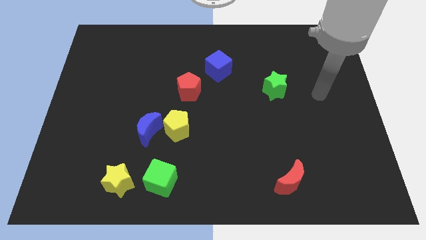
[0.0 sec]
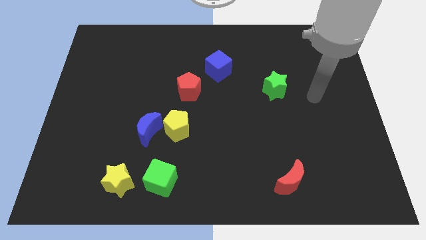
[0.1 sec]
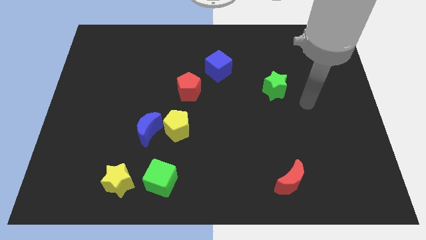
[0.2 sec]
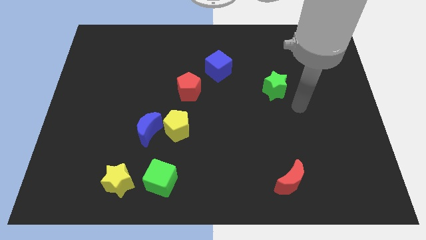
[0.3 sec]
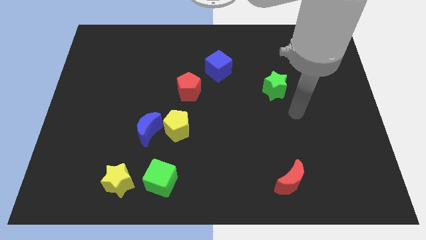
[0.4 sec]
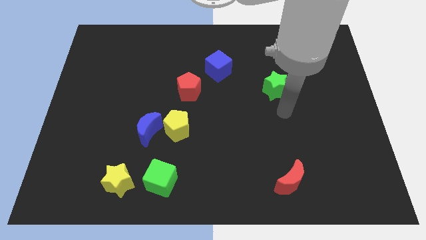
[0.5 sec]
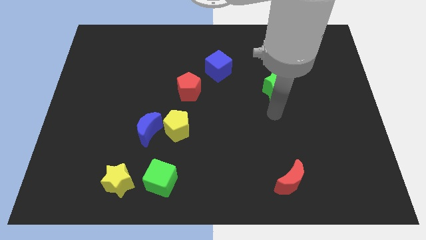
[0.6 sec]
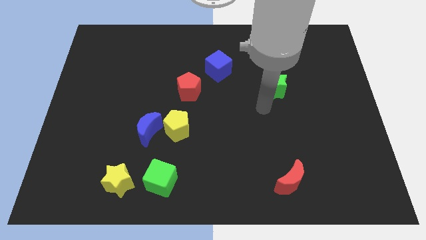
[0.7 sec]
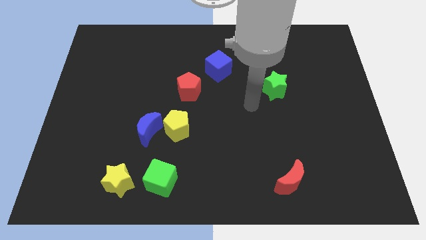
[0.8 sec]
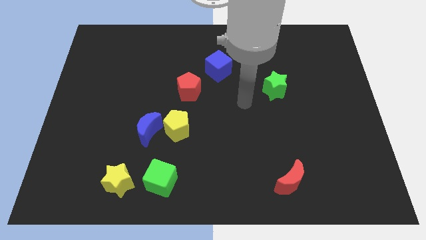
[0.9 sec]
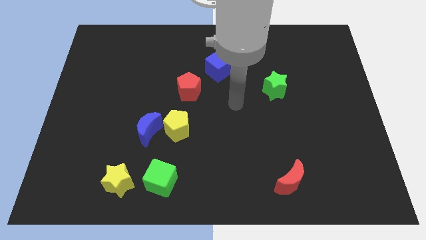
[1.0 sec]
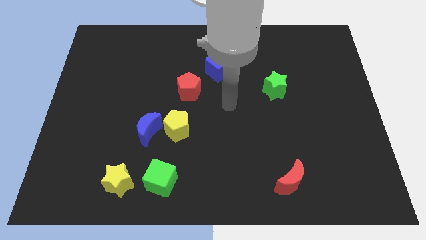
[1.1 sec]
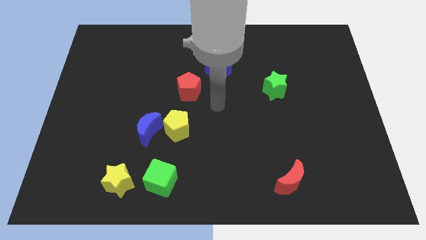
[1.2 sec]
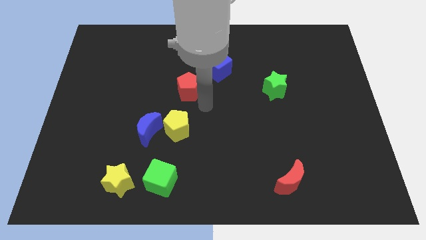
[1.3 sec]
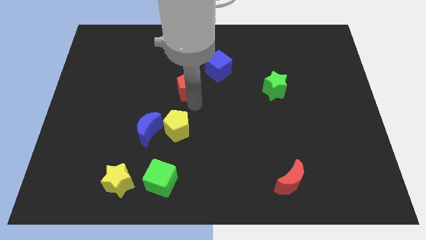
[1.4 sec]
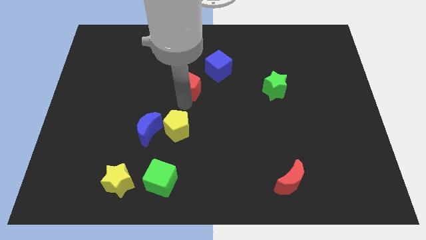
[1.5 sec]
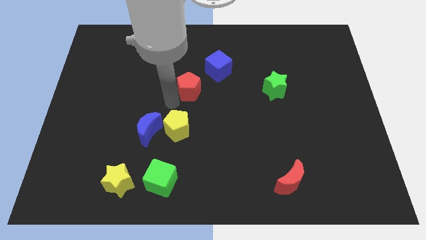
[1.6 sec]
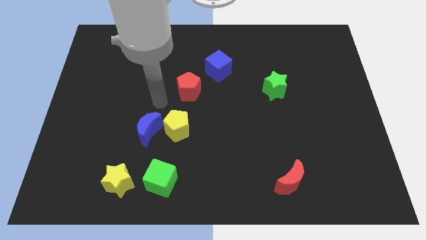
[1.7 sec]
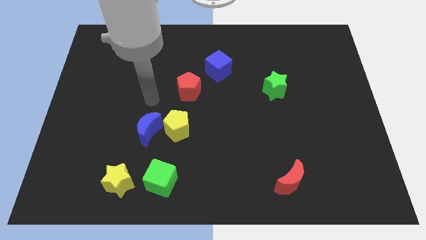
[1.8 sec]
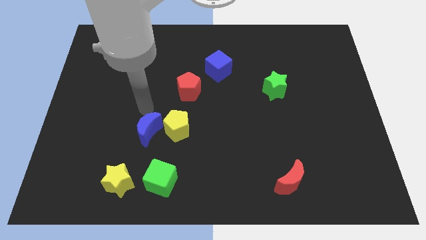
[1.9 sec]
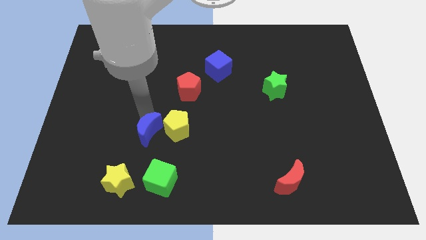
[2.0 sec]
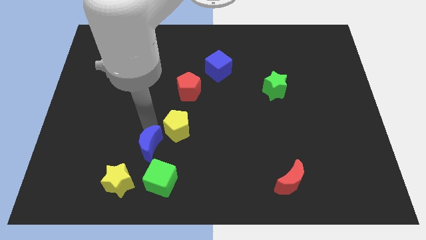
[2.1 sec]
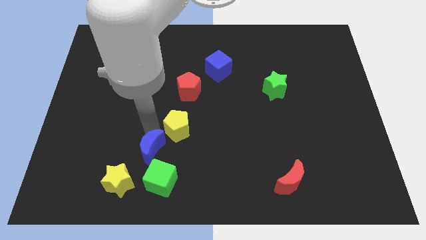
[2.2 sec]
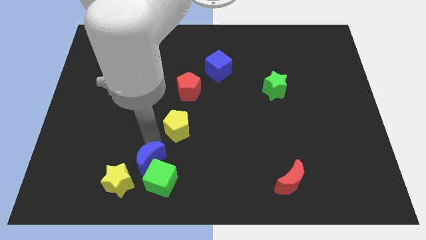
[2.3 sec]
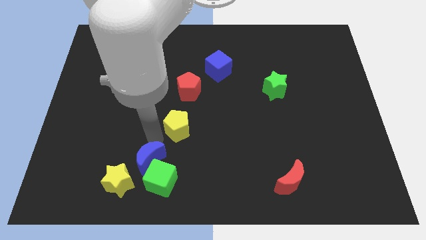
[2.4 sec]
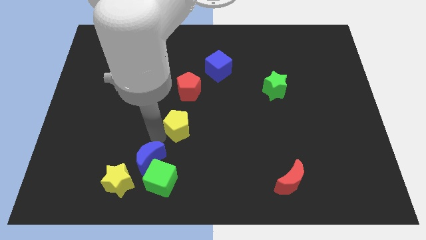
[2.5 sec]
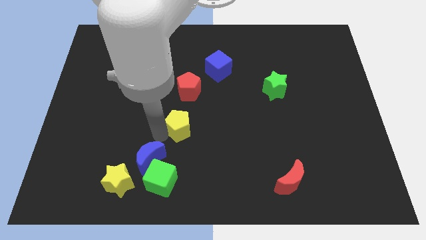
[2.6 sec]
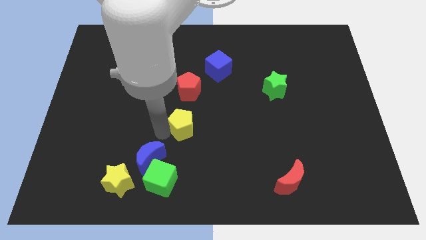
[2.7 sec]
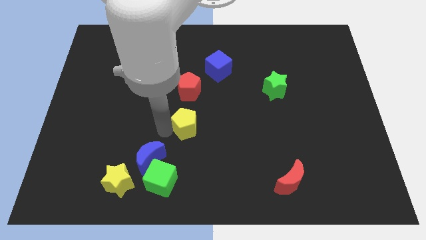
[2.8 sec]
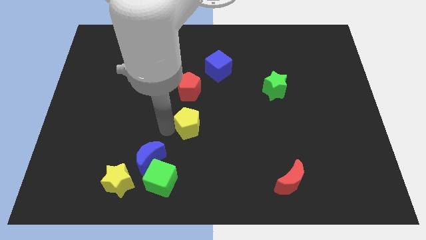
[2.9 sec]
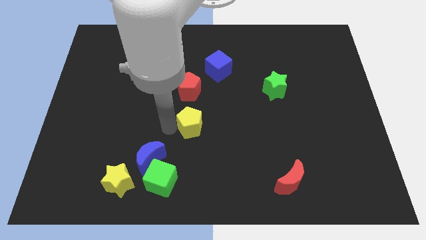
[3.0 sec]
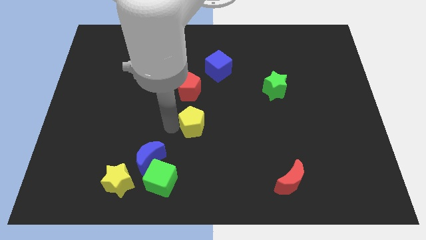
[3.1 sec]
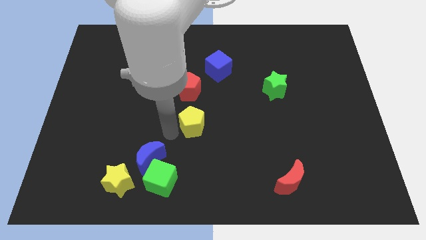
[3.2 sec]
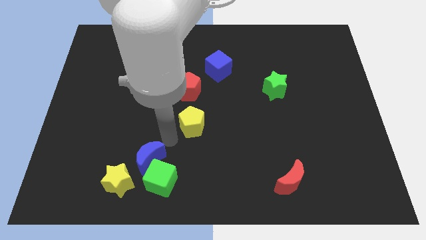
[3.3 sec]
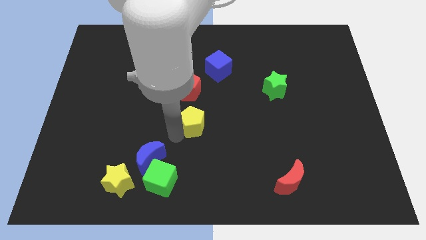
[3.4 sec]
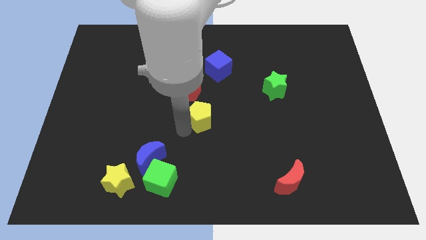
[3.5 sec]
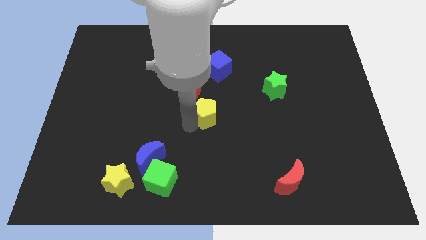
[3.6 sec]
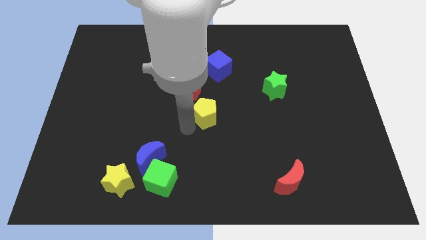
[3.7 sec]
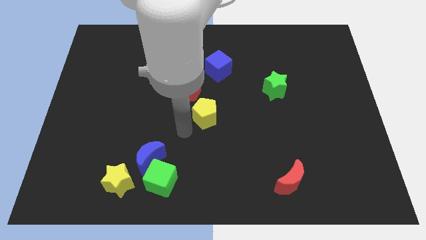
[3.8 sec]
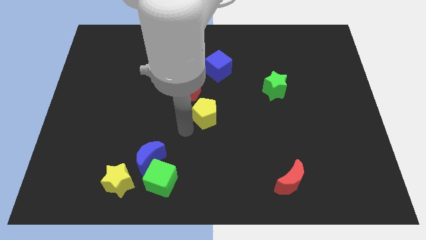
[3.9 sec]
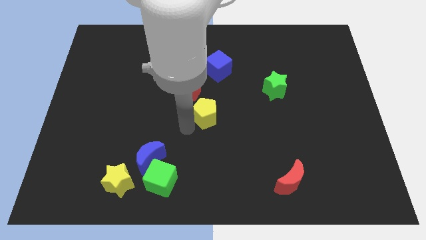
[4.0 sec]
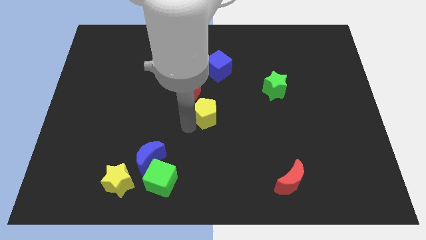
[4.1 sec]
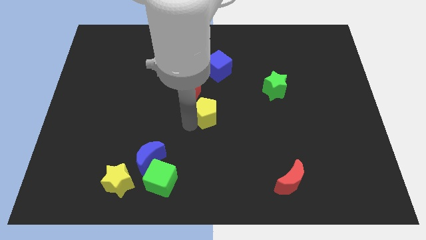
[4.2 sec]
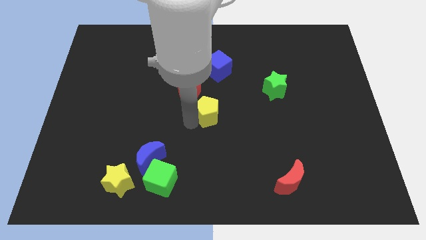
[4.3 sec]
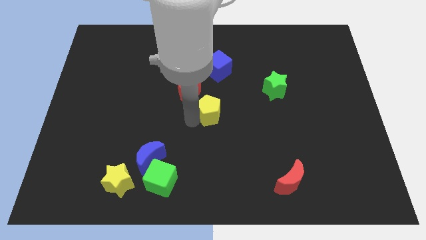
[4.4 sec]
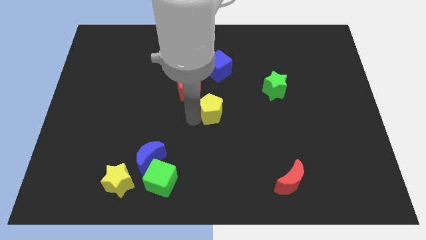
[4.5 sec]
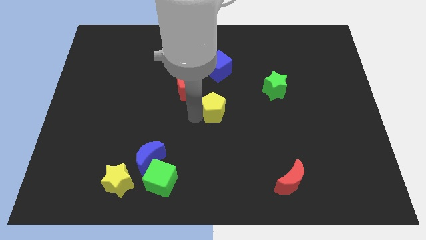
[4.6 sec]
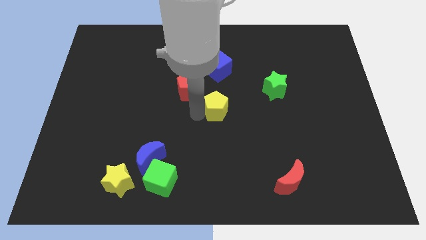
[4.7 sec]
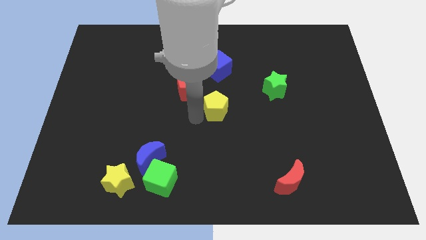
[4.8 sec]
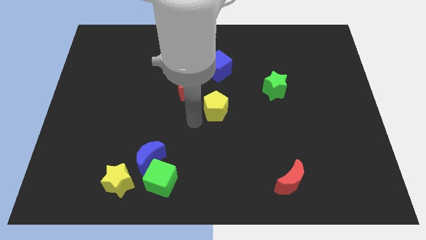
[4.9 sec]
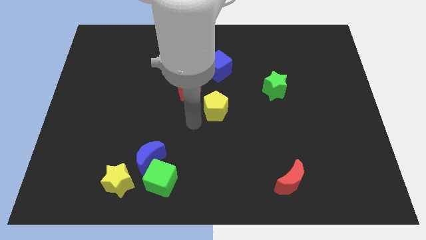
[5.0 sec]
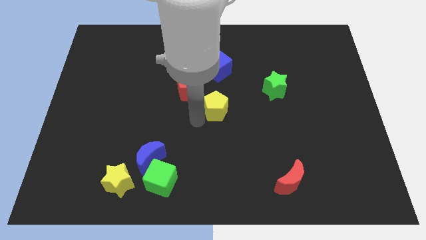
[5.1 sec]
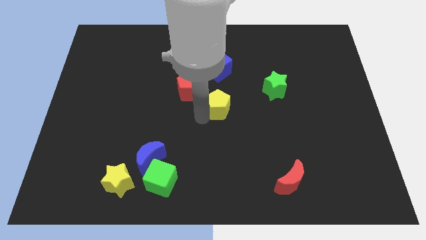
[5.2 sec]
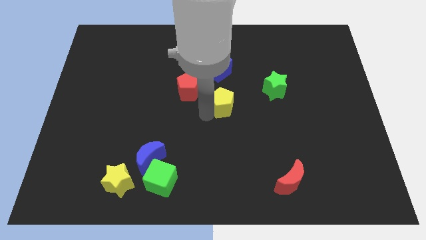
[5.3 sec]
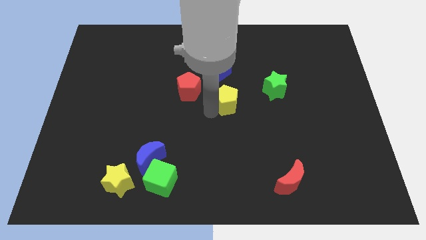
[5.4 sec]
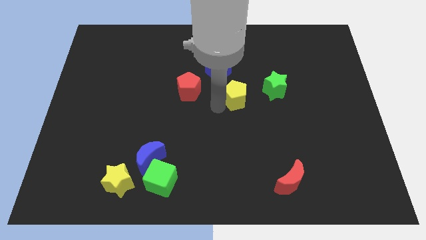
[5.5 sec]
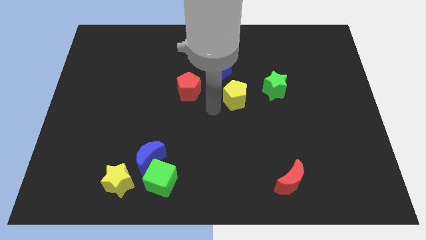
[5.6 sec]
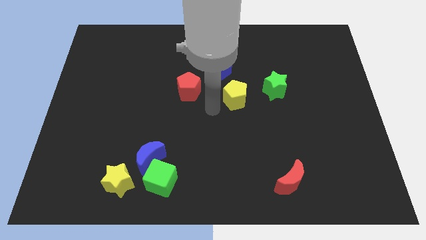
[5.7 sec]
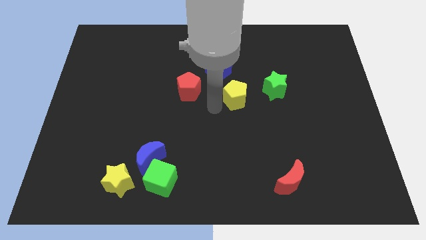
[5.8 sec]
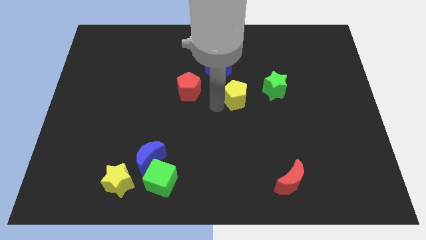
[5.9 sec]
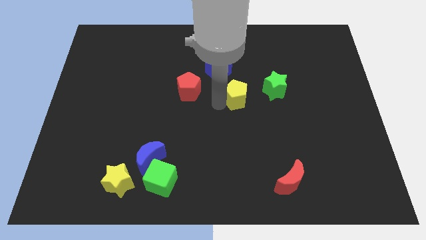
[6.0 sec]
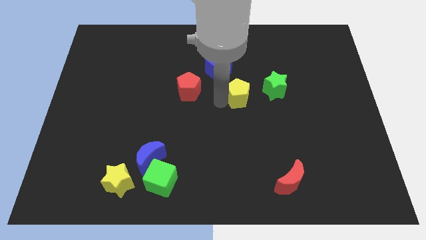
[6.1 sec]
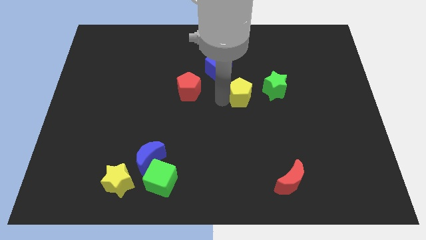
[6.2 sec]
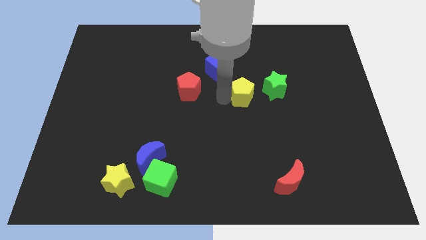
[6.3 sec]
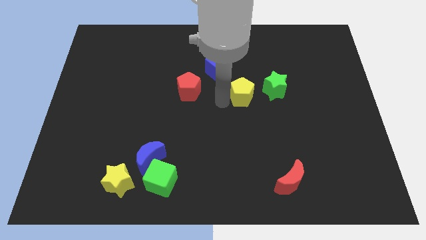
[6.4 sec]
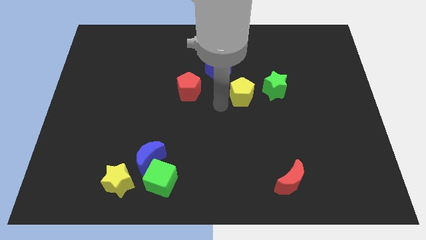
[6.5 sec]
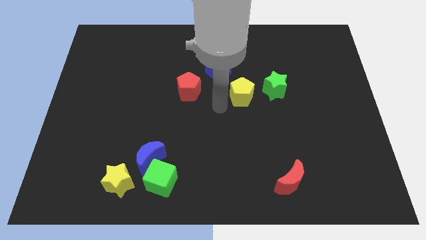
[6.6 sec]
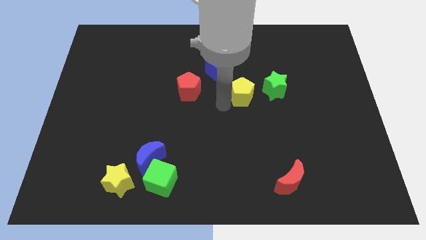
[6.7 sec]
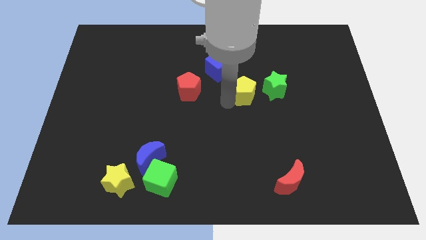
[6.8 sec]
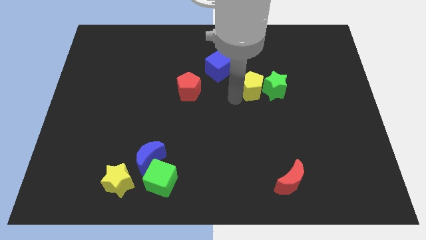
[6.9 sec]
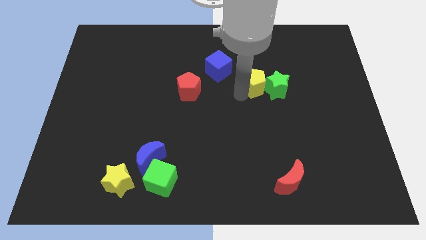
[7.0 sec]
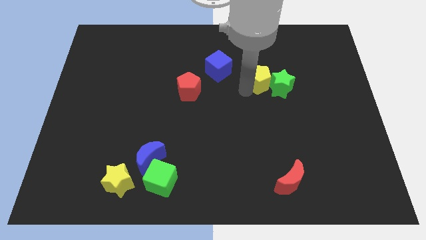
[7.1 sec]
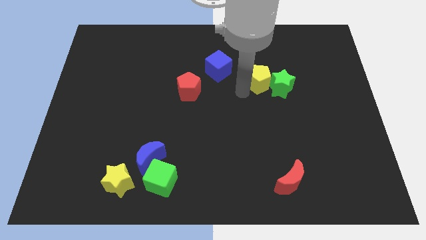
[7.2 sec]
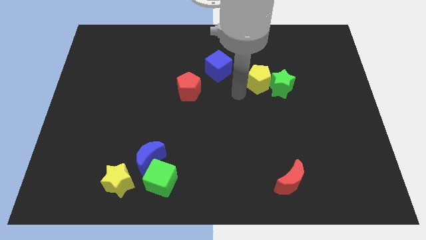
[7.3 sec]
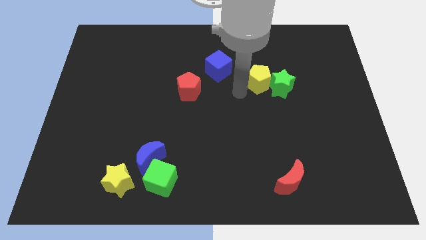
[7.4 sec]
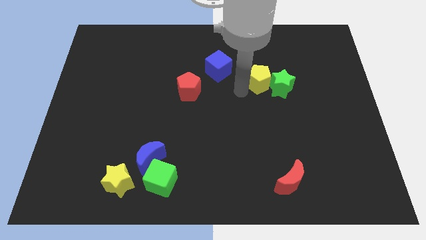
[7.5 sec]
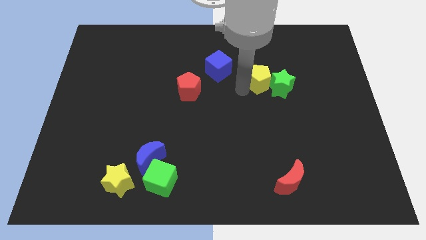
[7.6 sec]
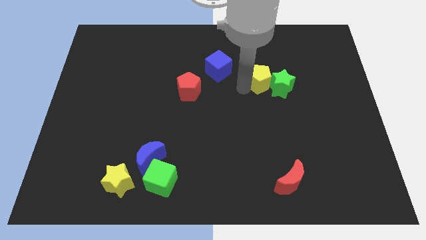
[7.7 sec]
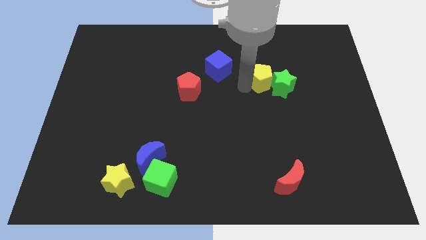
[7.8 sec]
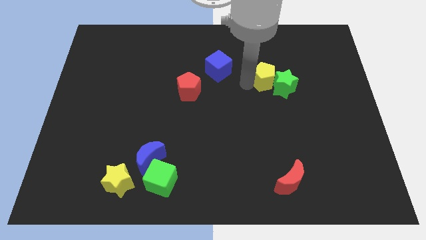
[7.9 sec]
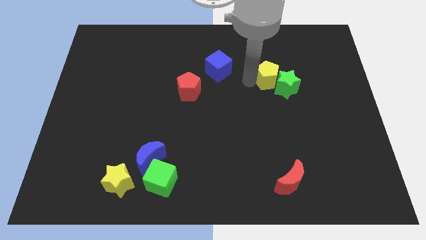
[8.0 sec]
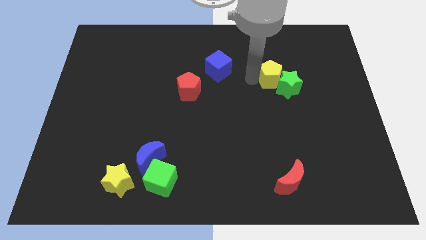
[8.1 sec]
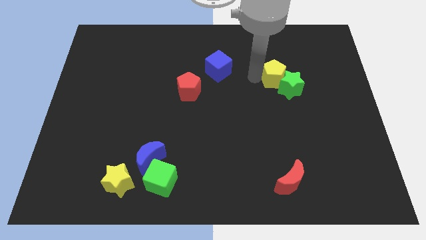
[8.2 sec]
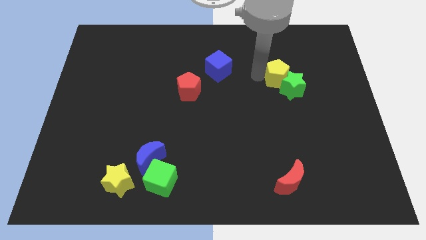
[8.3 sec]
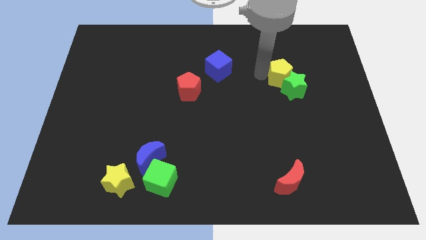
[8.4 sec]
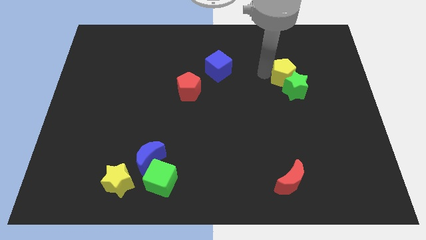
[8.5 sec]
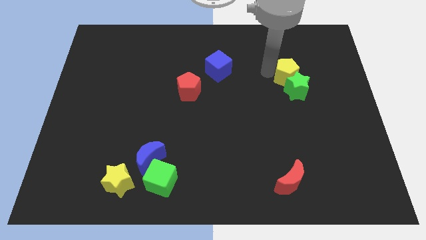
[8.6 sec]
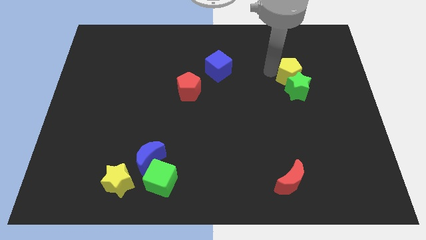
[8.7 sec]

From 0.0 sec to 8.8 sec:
put the yellow pentagon diagonally up and to the right of the green star
